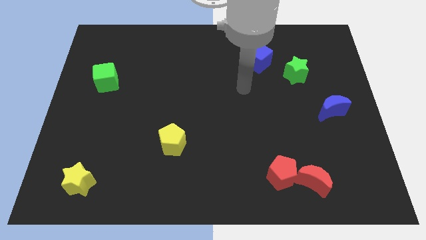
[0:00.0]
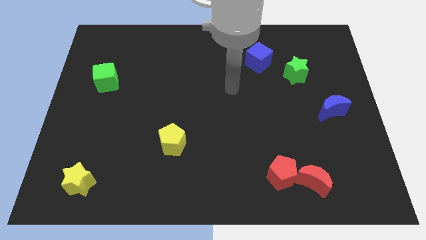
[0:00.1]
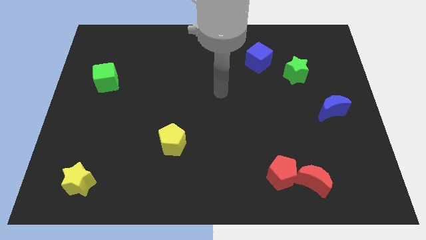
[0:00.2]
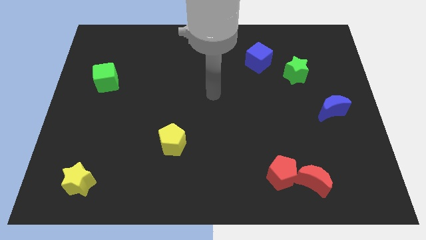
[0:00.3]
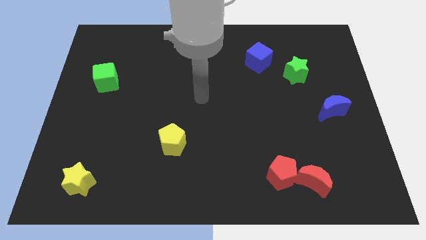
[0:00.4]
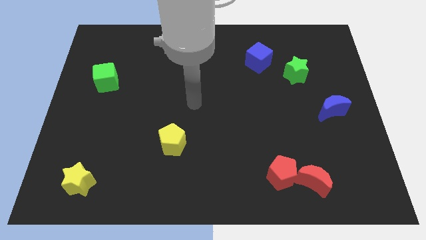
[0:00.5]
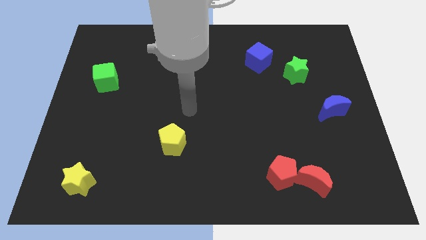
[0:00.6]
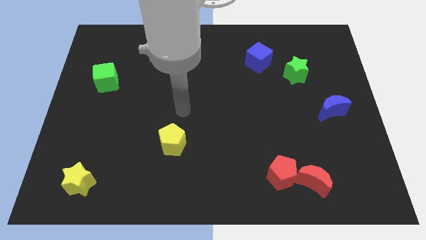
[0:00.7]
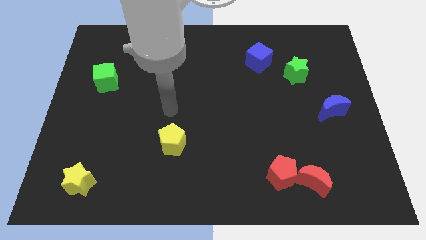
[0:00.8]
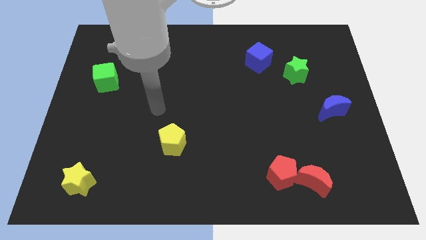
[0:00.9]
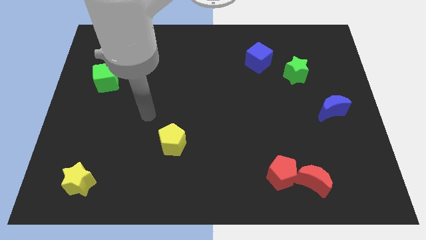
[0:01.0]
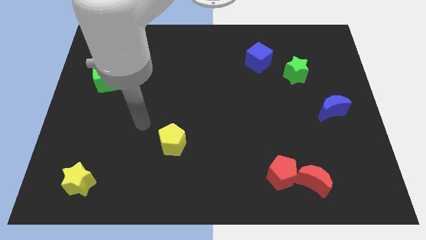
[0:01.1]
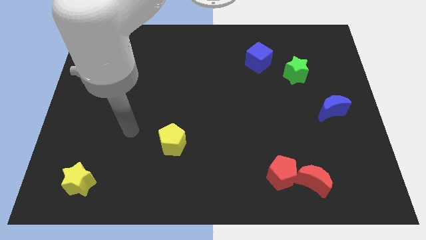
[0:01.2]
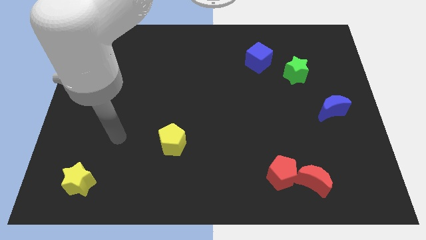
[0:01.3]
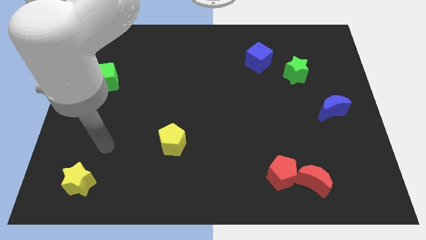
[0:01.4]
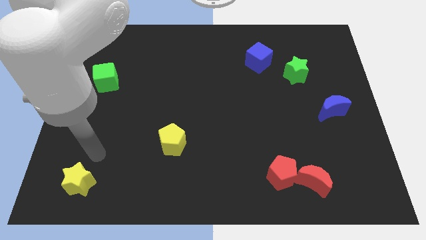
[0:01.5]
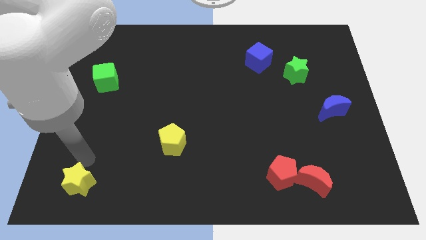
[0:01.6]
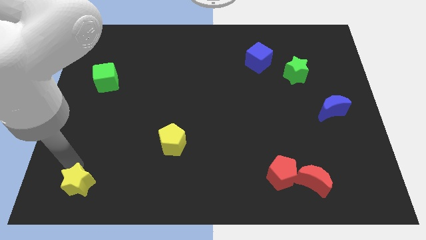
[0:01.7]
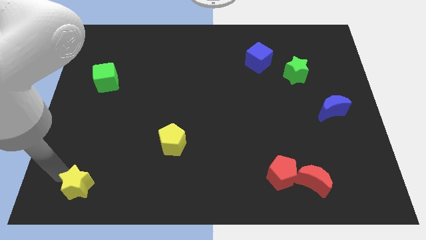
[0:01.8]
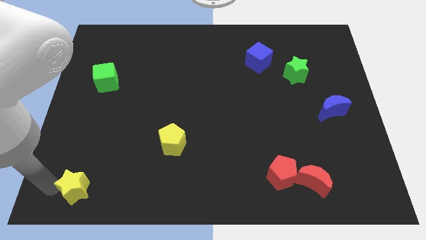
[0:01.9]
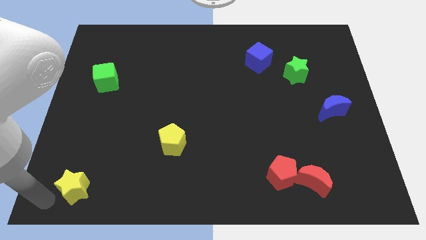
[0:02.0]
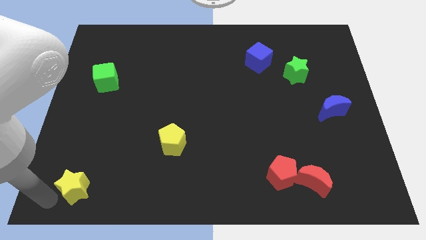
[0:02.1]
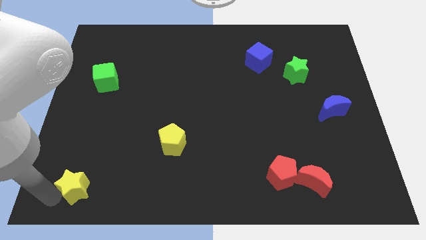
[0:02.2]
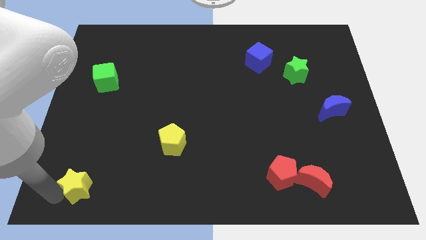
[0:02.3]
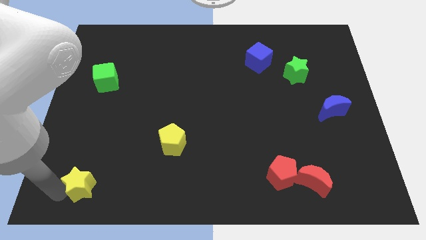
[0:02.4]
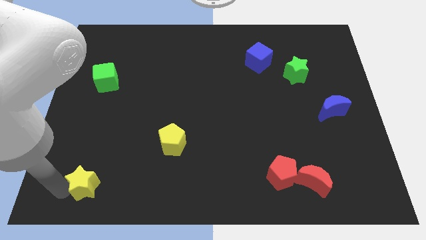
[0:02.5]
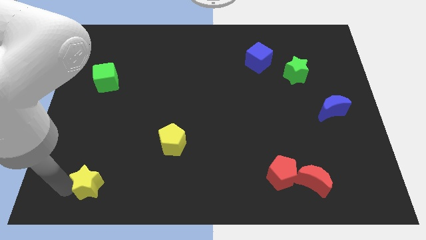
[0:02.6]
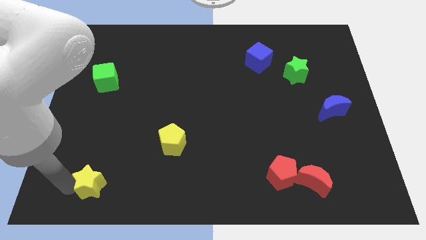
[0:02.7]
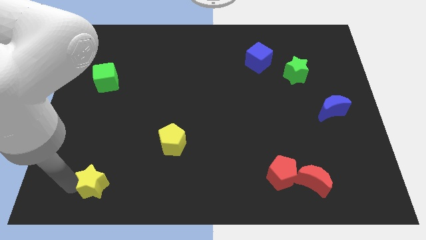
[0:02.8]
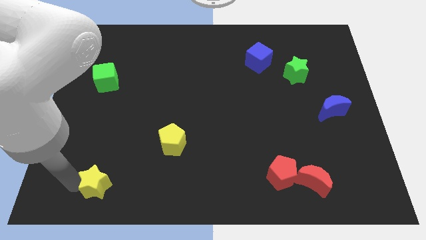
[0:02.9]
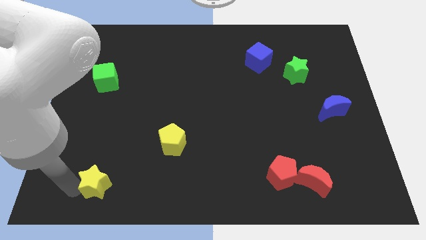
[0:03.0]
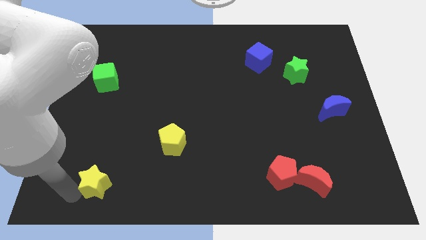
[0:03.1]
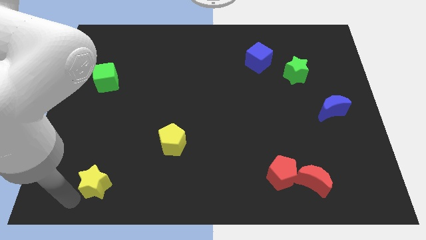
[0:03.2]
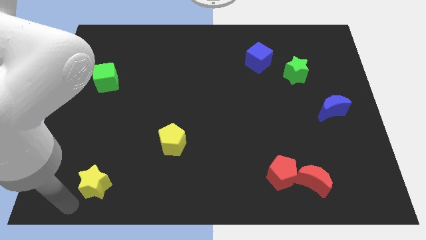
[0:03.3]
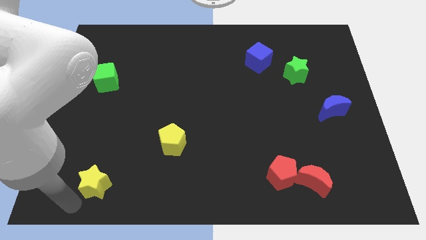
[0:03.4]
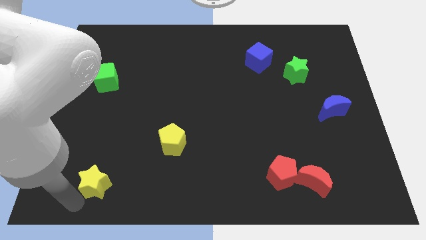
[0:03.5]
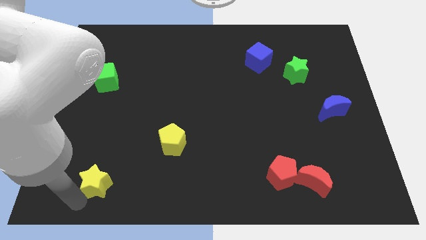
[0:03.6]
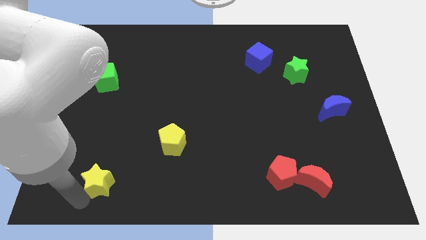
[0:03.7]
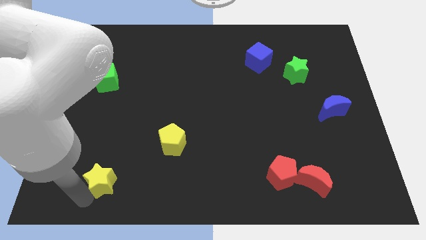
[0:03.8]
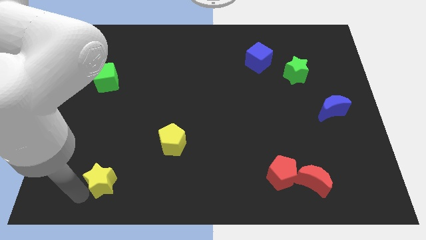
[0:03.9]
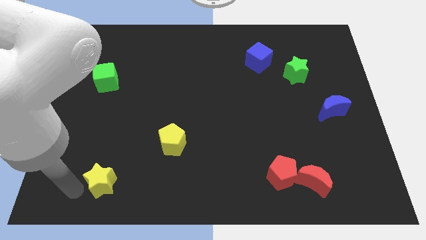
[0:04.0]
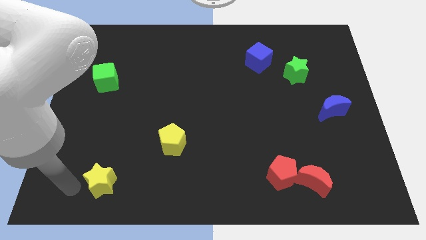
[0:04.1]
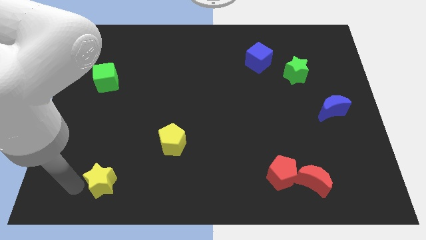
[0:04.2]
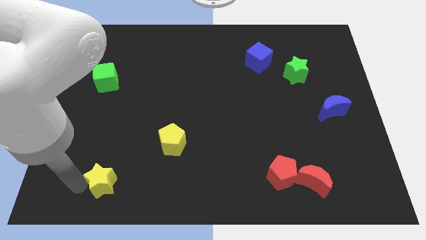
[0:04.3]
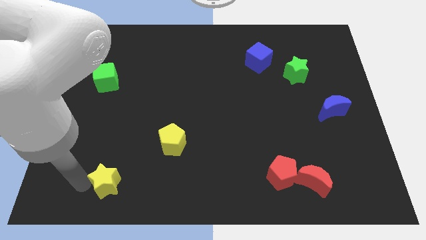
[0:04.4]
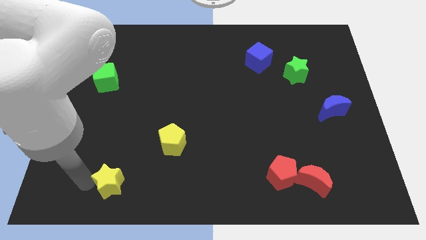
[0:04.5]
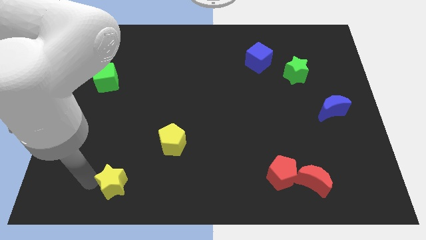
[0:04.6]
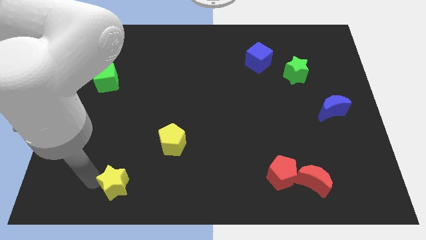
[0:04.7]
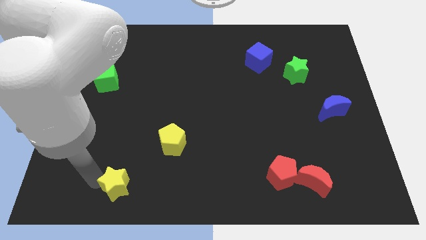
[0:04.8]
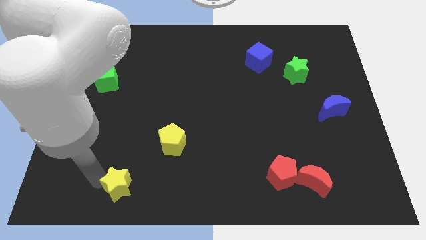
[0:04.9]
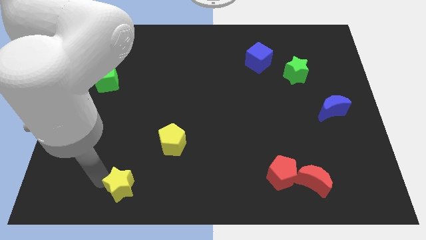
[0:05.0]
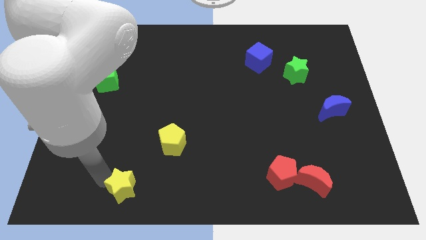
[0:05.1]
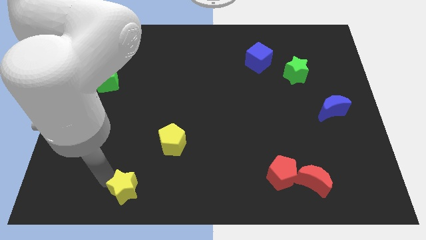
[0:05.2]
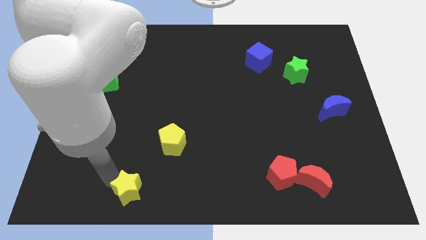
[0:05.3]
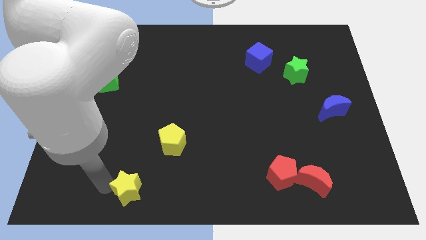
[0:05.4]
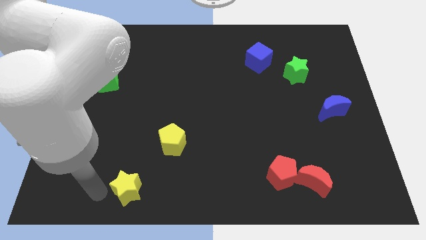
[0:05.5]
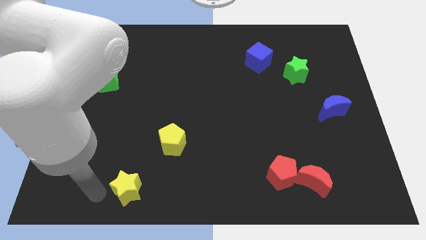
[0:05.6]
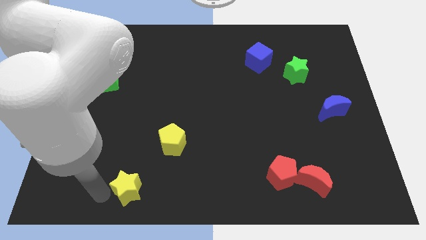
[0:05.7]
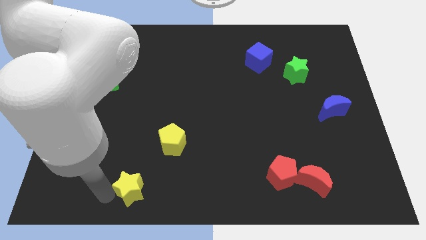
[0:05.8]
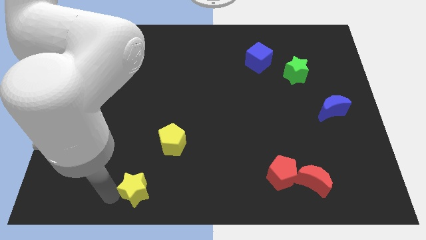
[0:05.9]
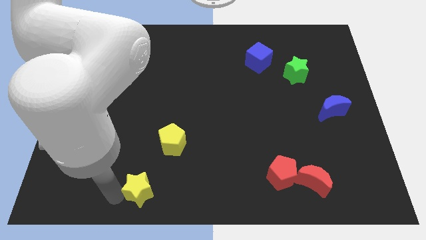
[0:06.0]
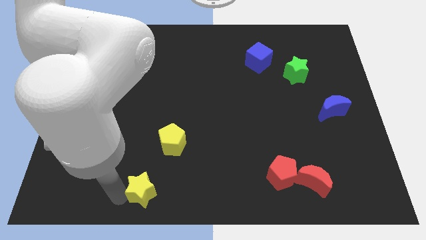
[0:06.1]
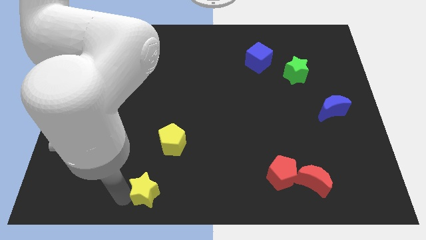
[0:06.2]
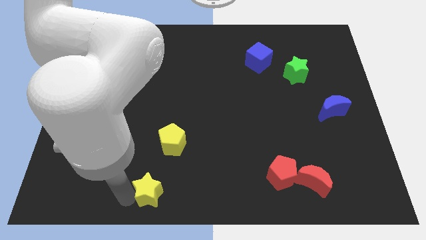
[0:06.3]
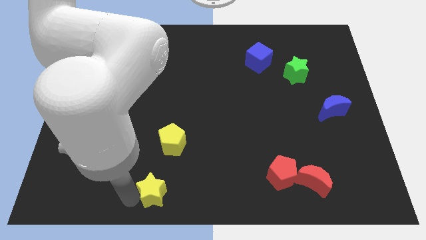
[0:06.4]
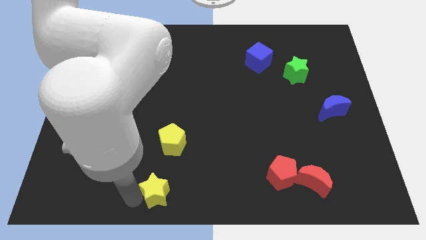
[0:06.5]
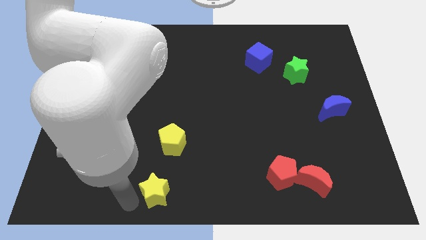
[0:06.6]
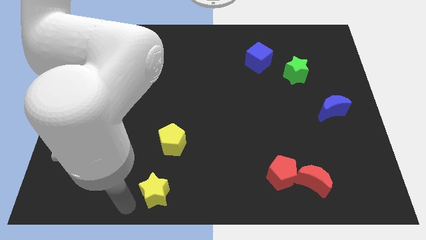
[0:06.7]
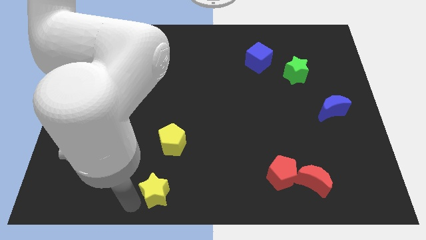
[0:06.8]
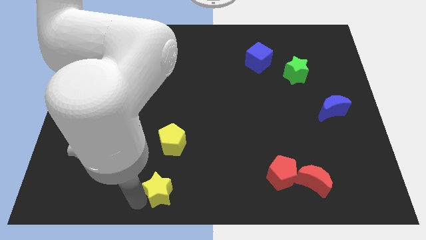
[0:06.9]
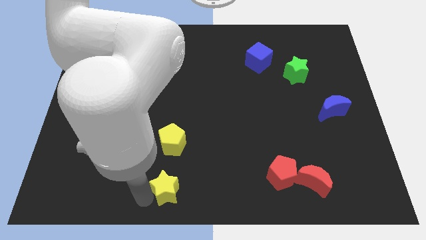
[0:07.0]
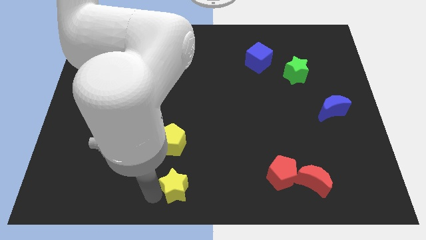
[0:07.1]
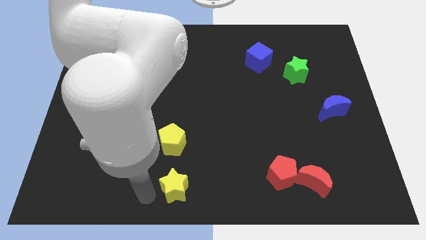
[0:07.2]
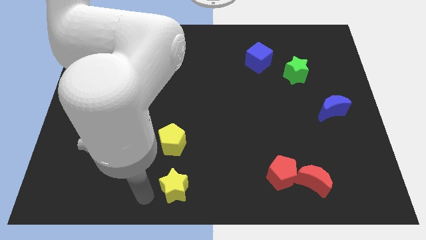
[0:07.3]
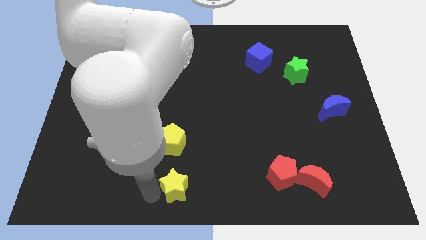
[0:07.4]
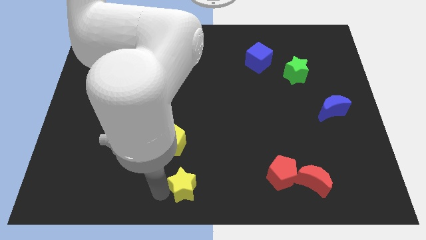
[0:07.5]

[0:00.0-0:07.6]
slide the yellow star to the right

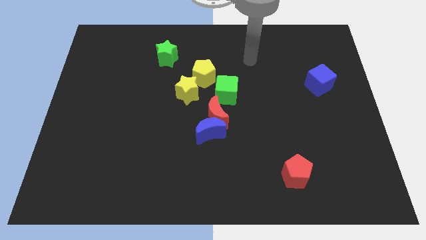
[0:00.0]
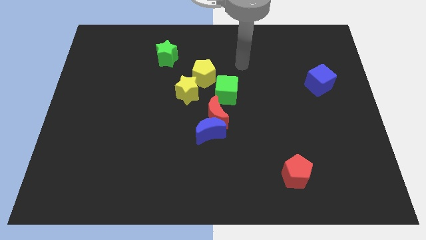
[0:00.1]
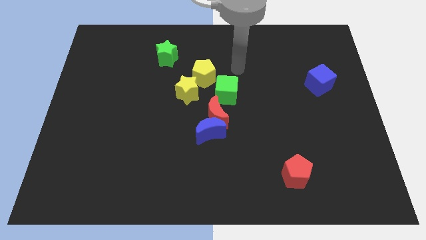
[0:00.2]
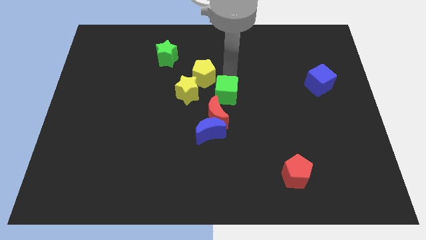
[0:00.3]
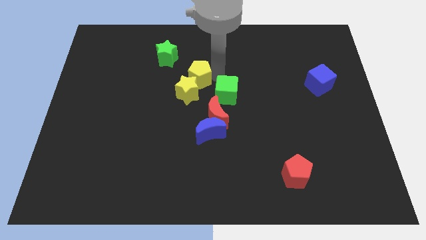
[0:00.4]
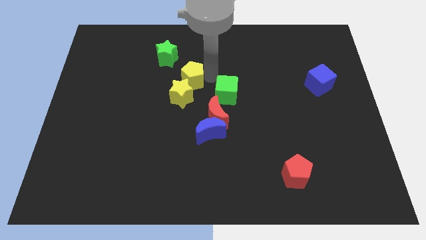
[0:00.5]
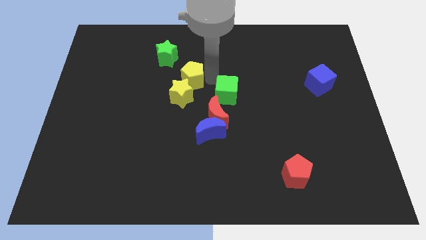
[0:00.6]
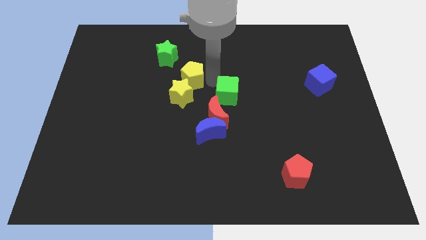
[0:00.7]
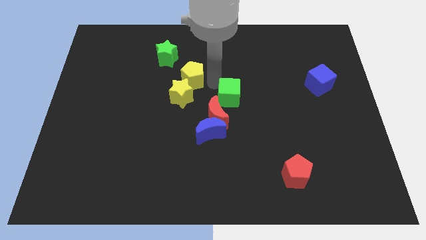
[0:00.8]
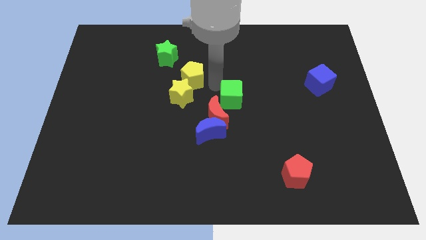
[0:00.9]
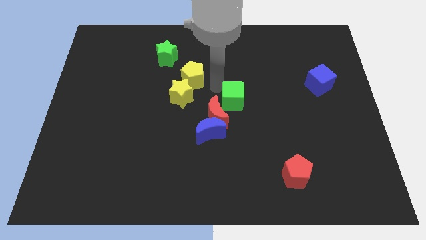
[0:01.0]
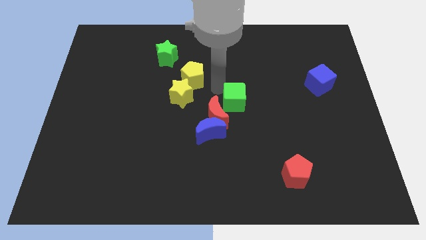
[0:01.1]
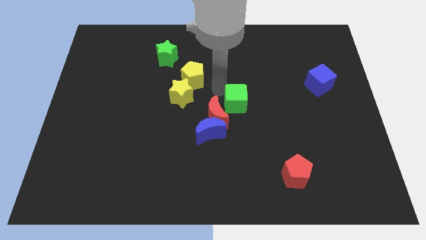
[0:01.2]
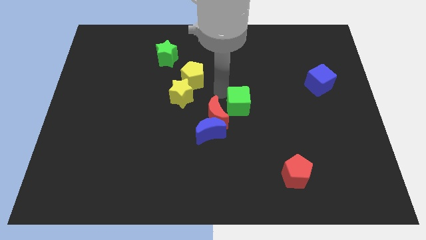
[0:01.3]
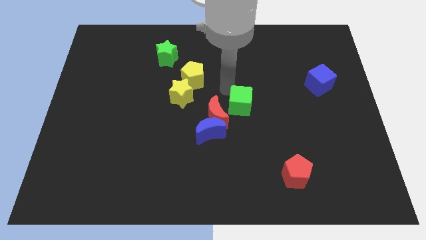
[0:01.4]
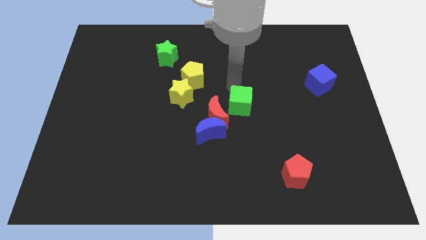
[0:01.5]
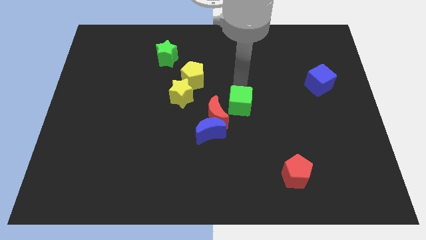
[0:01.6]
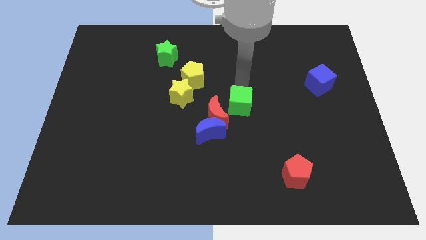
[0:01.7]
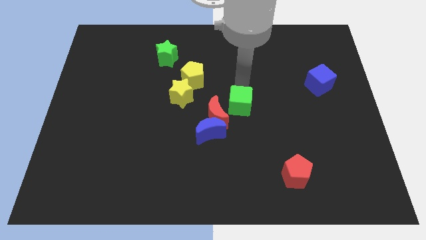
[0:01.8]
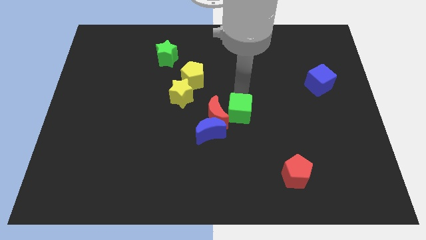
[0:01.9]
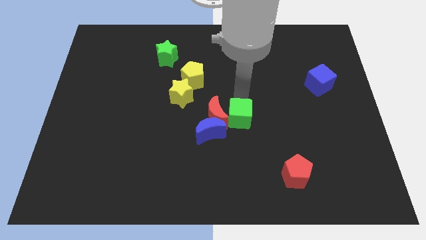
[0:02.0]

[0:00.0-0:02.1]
push the green cube a bit downwards
